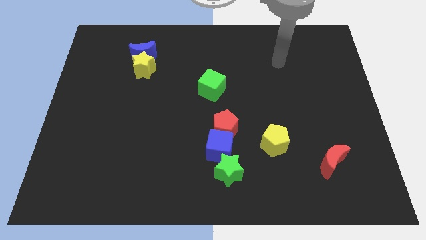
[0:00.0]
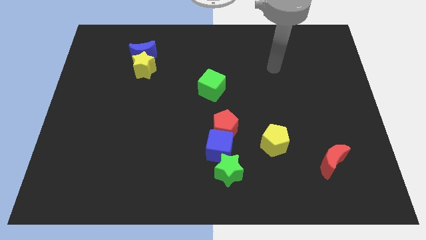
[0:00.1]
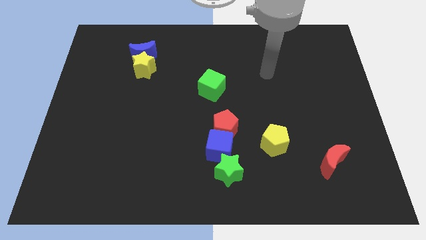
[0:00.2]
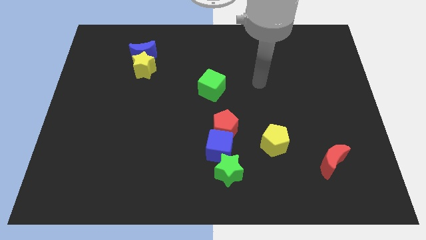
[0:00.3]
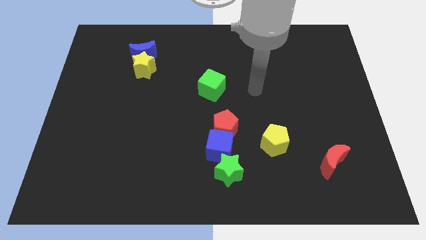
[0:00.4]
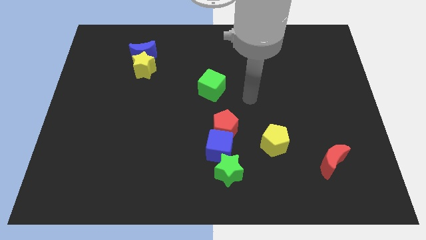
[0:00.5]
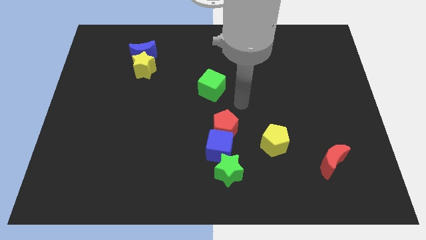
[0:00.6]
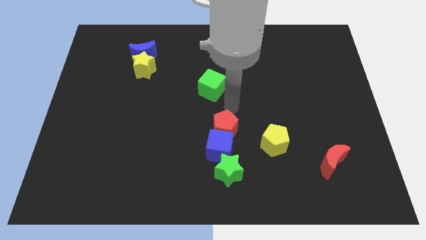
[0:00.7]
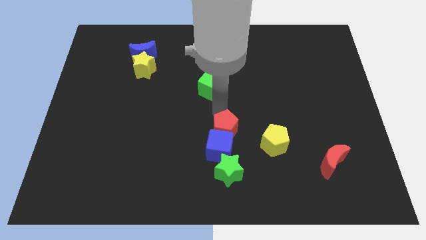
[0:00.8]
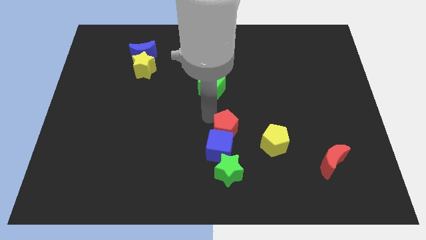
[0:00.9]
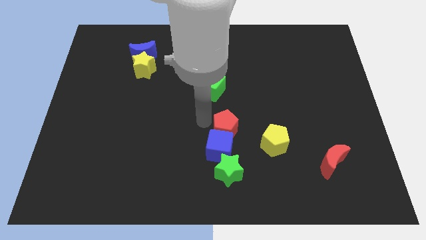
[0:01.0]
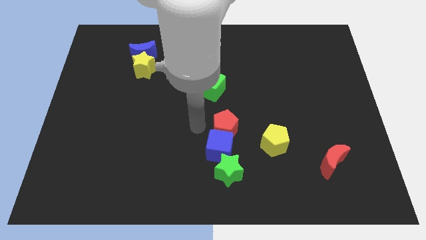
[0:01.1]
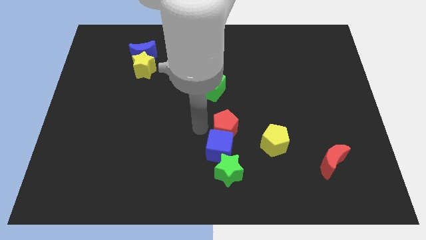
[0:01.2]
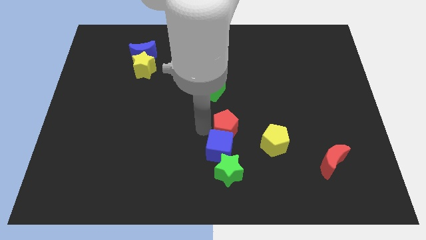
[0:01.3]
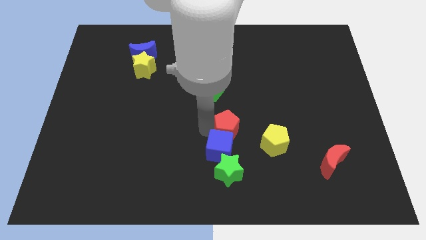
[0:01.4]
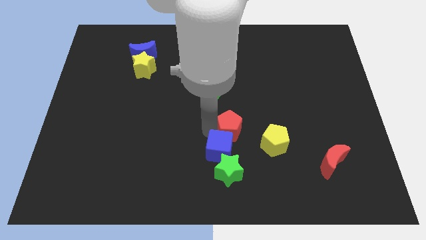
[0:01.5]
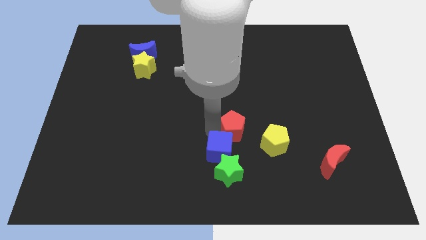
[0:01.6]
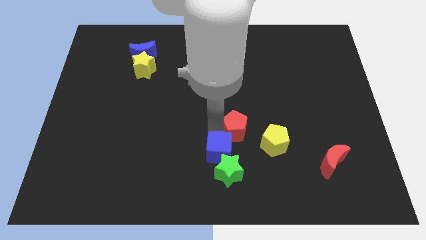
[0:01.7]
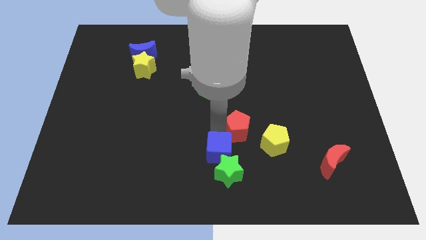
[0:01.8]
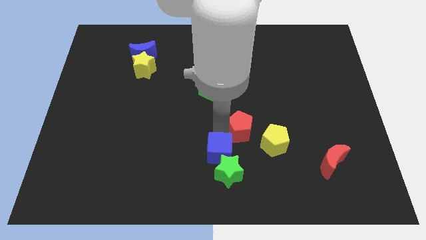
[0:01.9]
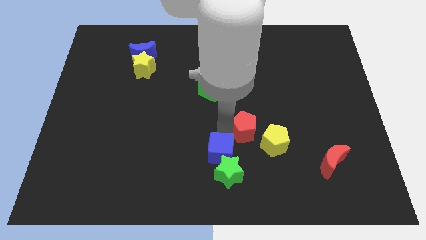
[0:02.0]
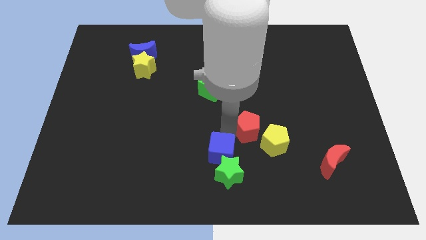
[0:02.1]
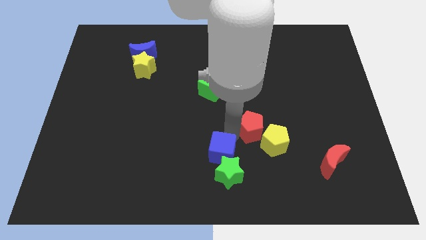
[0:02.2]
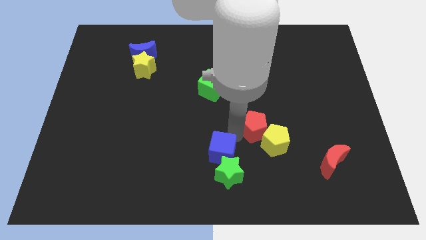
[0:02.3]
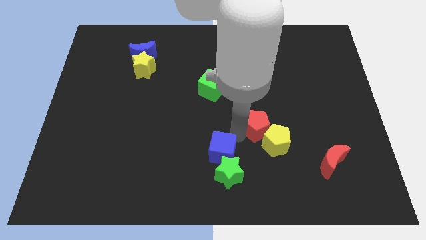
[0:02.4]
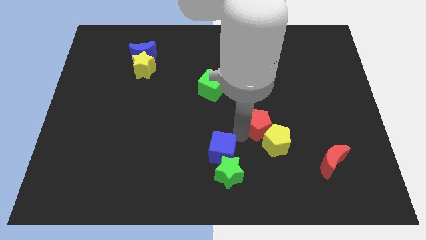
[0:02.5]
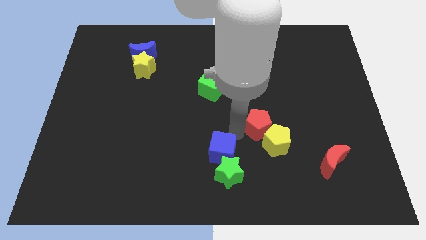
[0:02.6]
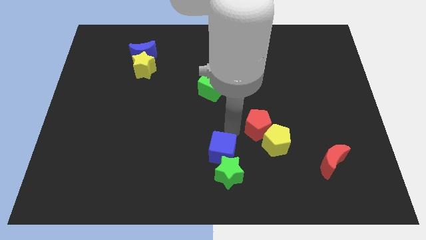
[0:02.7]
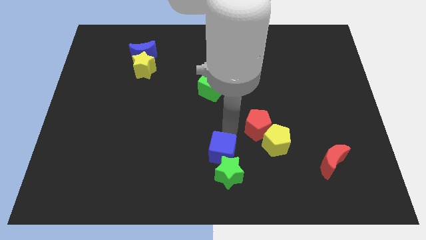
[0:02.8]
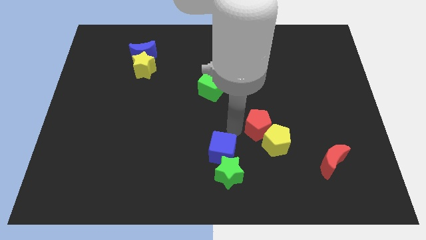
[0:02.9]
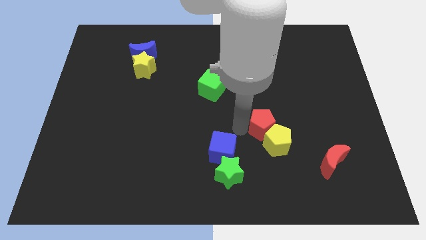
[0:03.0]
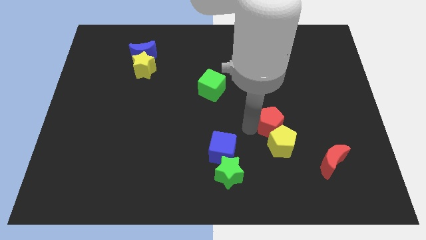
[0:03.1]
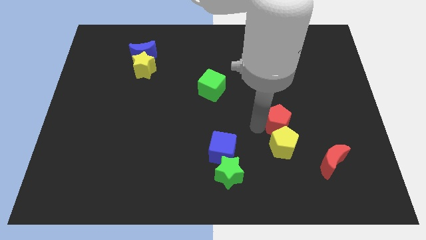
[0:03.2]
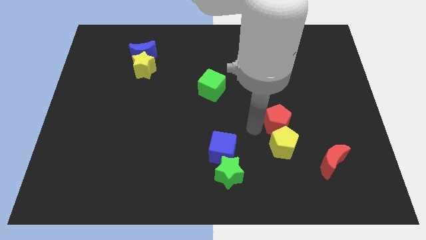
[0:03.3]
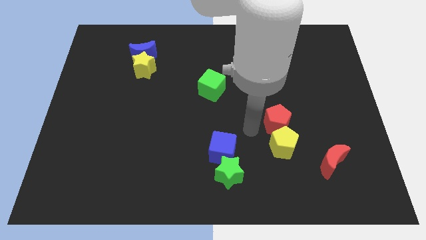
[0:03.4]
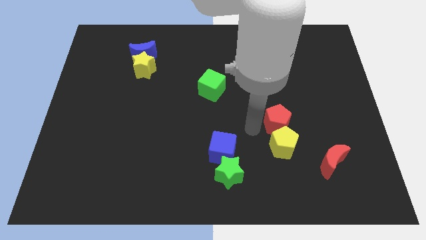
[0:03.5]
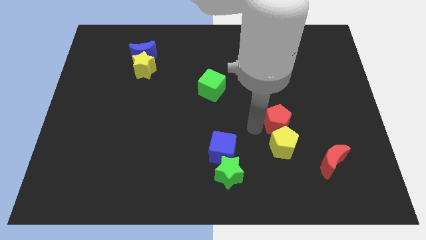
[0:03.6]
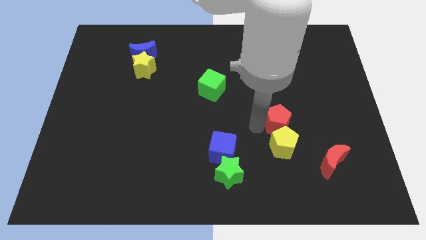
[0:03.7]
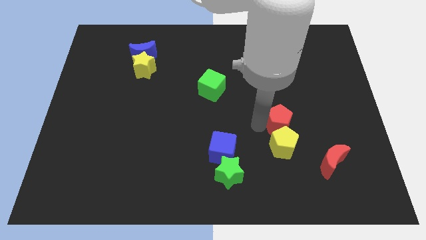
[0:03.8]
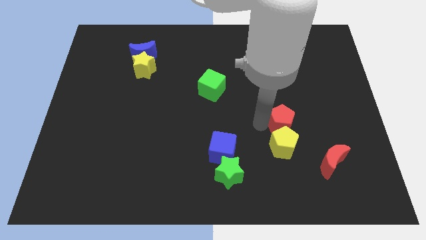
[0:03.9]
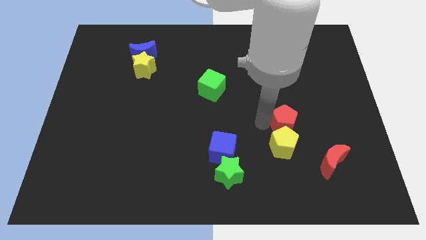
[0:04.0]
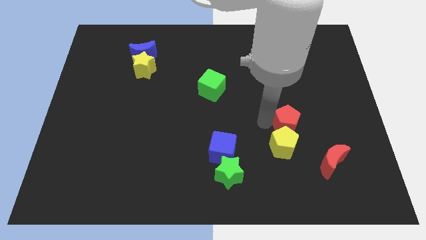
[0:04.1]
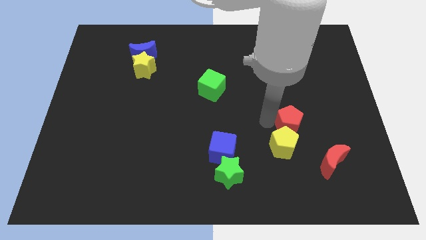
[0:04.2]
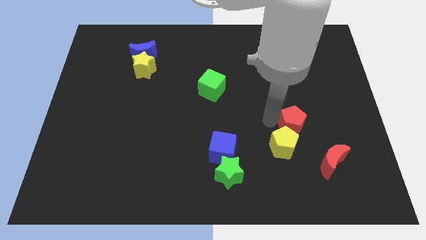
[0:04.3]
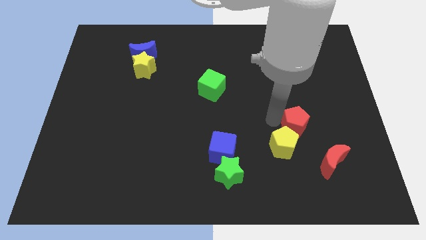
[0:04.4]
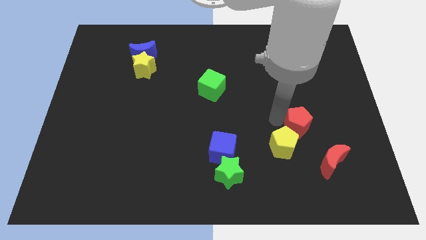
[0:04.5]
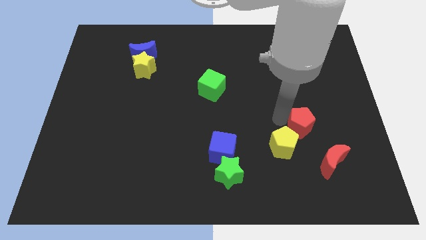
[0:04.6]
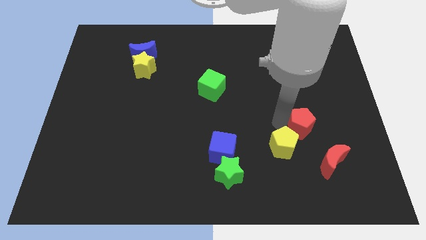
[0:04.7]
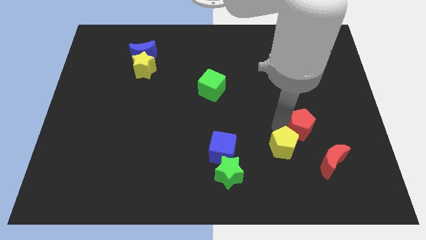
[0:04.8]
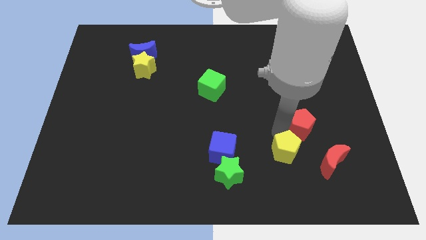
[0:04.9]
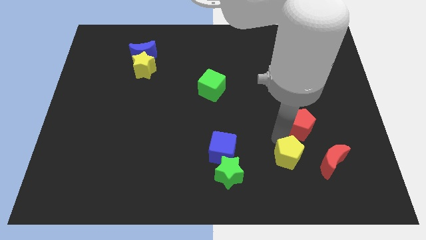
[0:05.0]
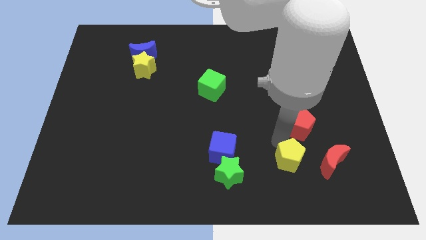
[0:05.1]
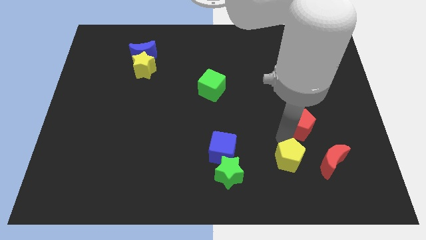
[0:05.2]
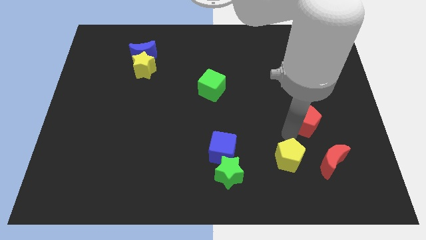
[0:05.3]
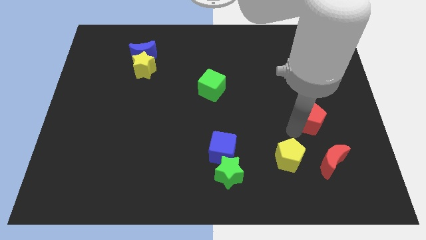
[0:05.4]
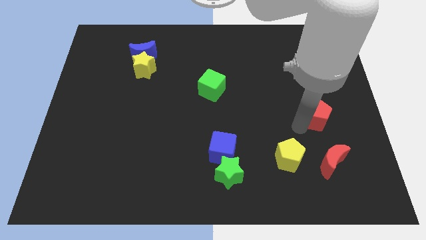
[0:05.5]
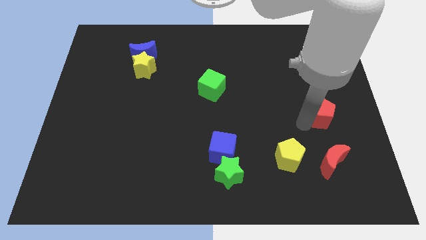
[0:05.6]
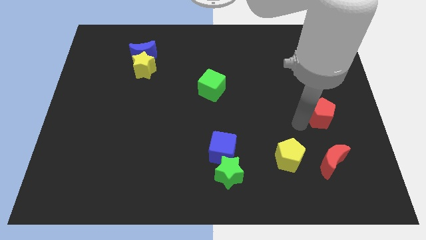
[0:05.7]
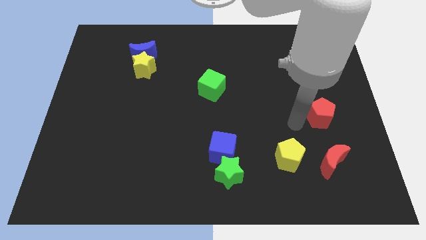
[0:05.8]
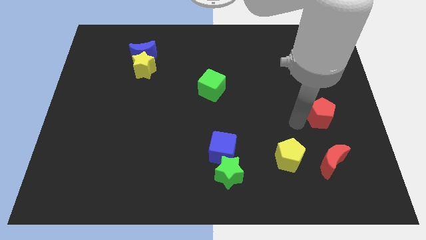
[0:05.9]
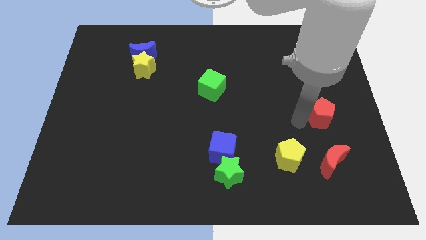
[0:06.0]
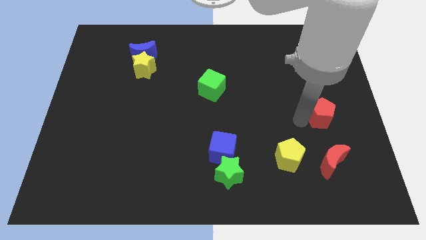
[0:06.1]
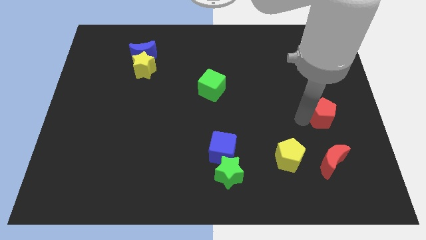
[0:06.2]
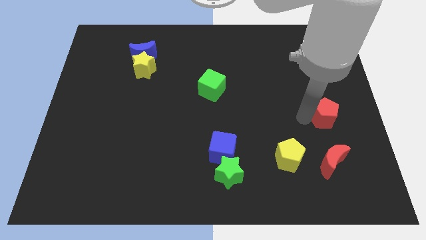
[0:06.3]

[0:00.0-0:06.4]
put the red pentagon to the right side
